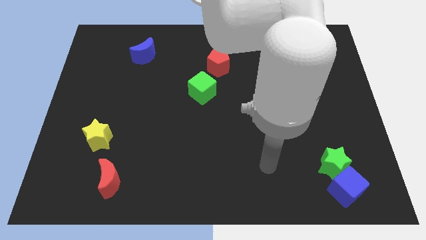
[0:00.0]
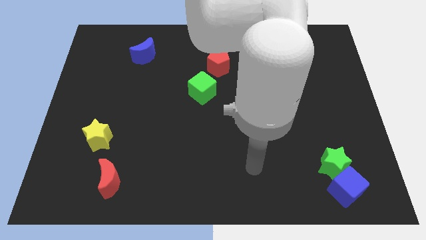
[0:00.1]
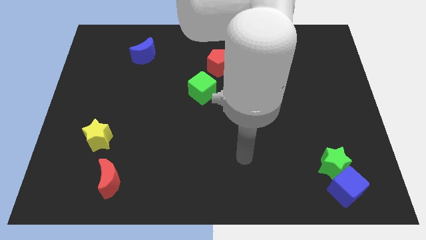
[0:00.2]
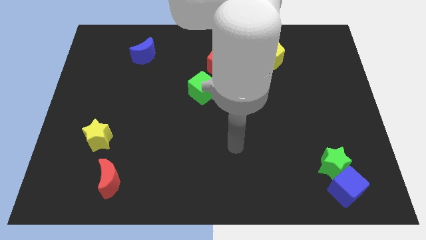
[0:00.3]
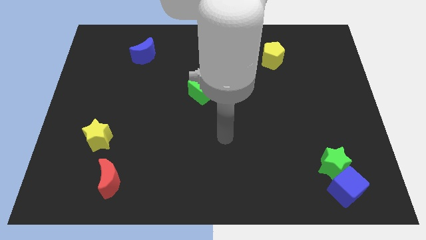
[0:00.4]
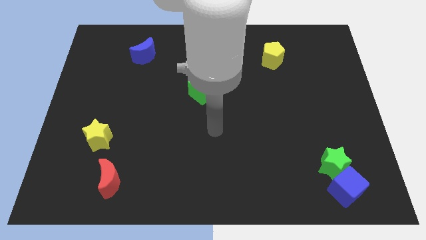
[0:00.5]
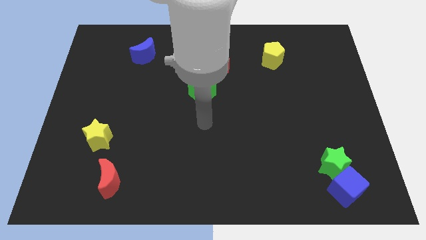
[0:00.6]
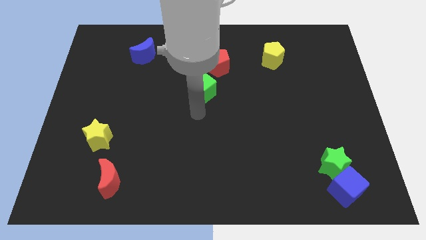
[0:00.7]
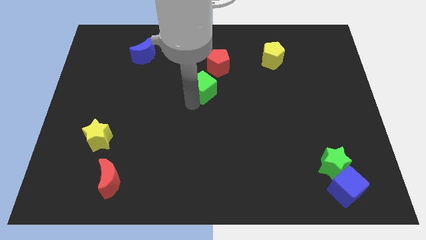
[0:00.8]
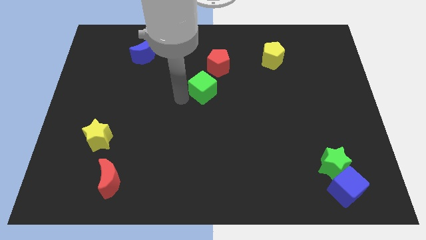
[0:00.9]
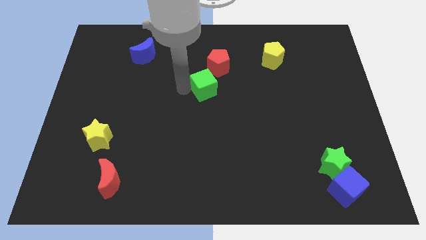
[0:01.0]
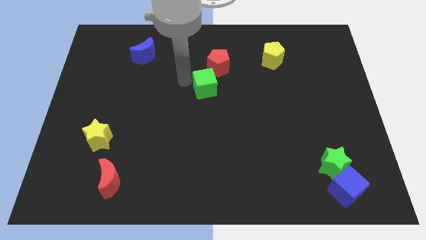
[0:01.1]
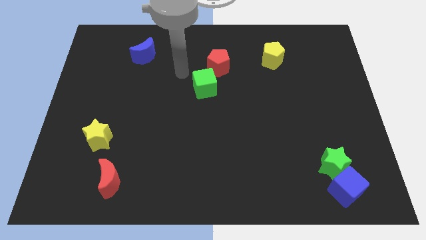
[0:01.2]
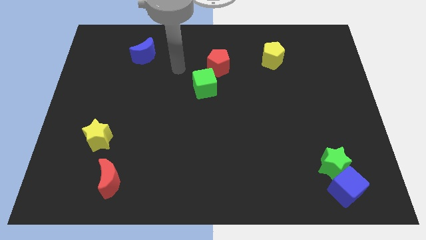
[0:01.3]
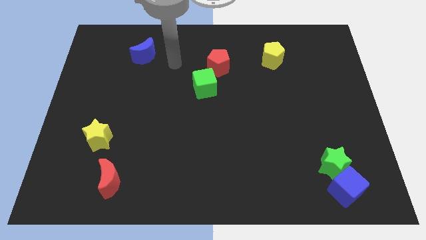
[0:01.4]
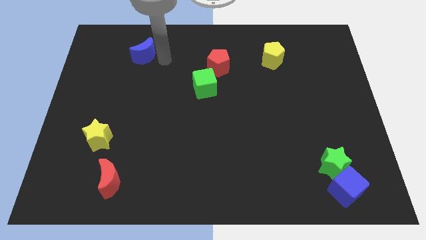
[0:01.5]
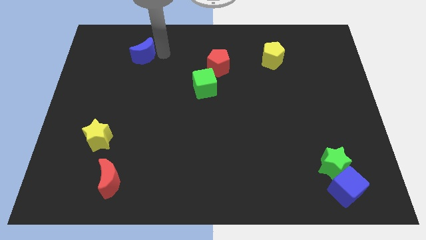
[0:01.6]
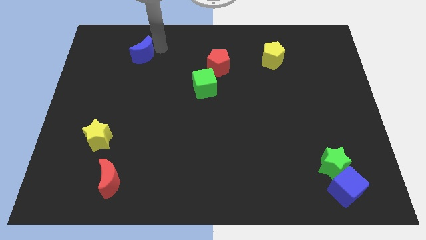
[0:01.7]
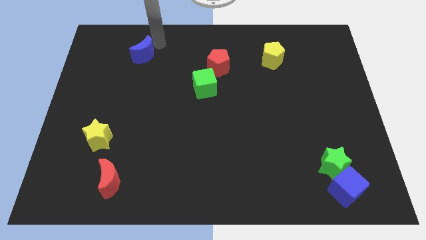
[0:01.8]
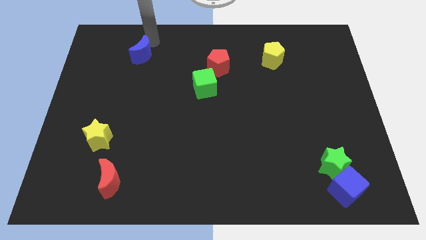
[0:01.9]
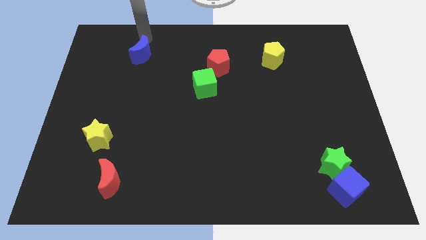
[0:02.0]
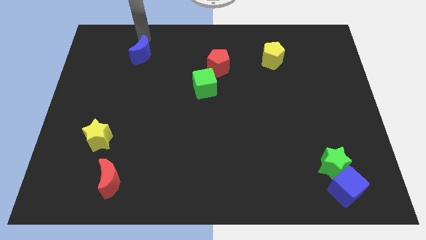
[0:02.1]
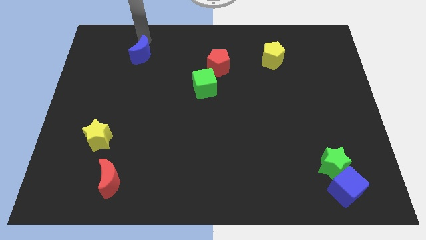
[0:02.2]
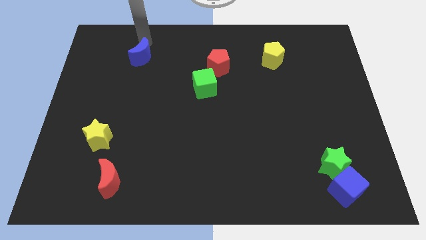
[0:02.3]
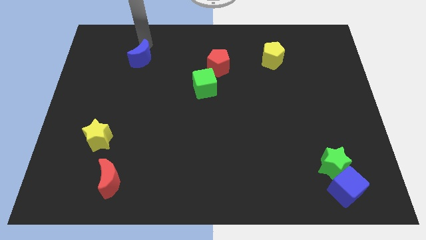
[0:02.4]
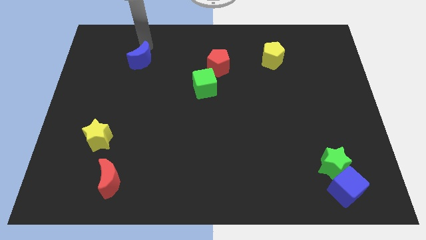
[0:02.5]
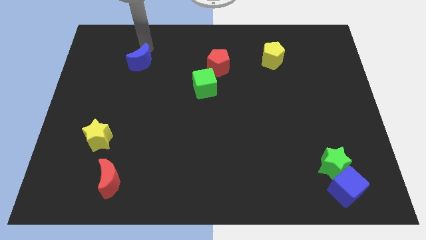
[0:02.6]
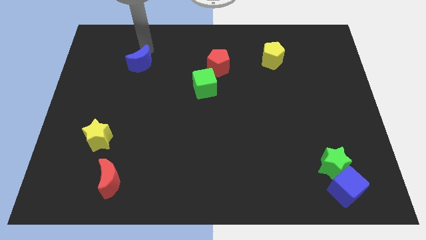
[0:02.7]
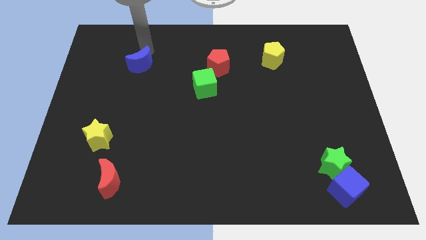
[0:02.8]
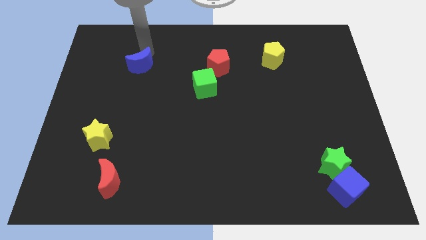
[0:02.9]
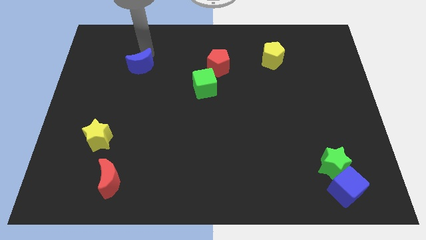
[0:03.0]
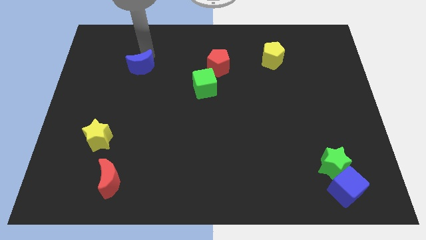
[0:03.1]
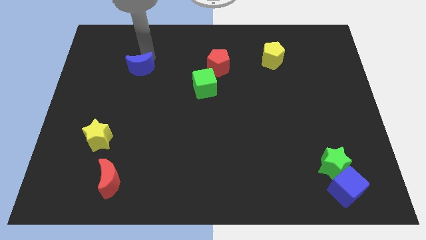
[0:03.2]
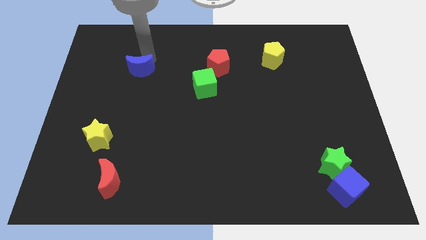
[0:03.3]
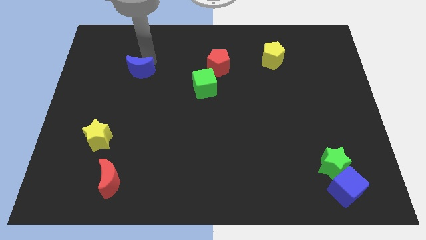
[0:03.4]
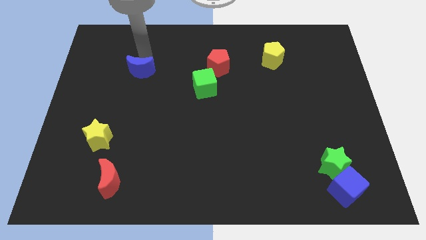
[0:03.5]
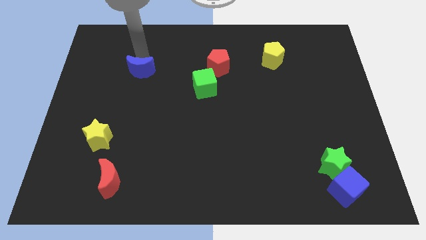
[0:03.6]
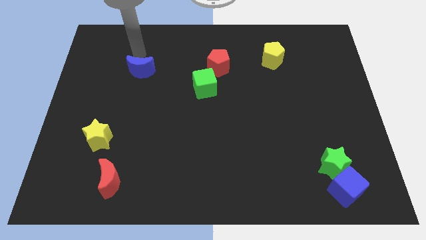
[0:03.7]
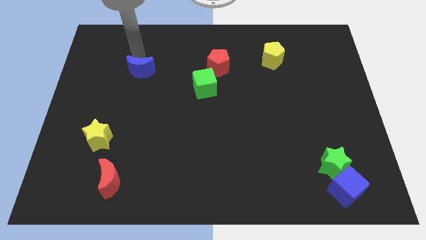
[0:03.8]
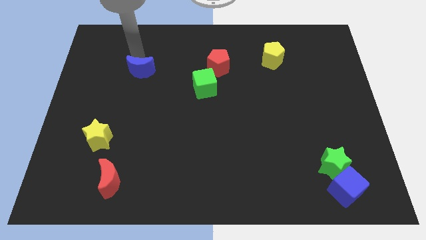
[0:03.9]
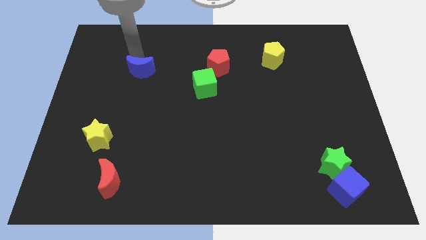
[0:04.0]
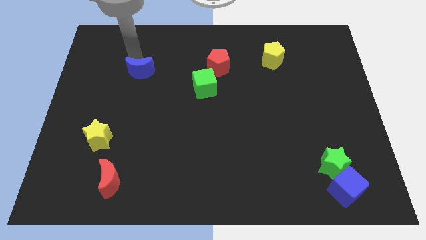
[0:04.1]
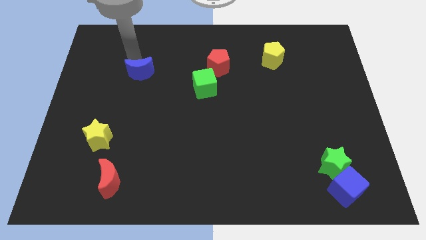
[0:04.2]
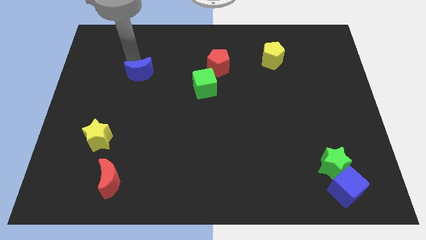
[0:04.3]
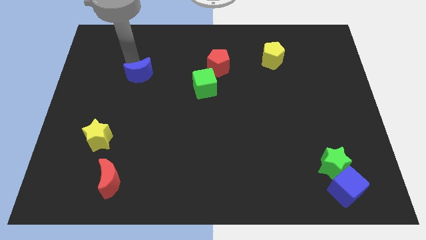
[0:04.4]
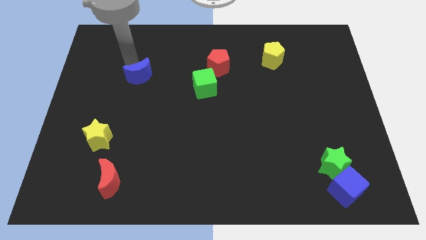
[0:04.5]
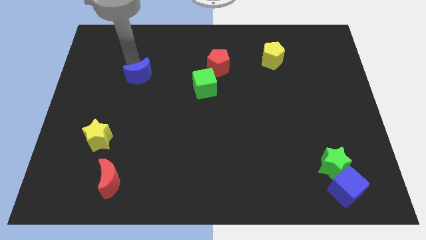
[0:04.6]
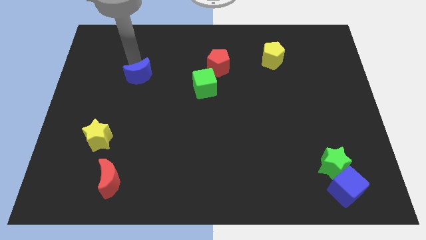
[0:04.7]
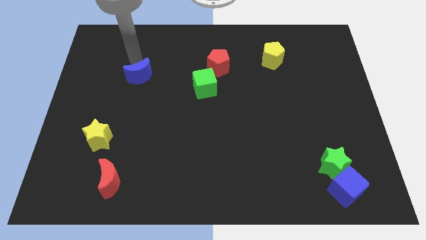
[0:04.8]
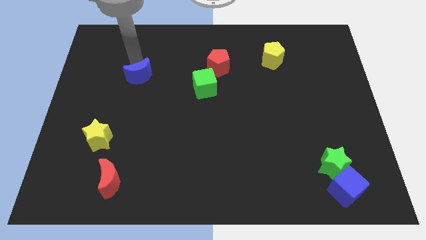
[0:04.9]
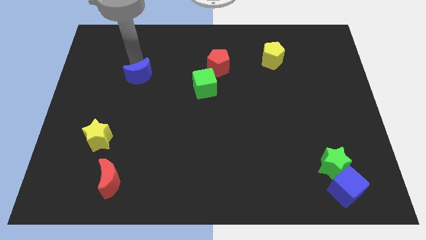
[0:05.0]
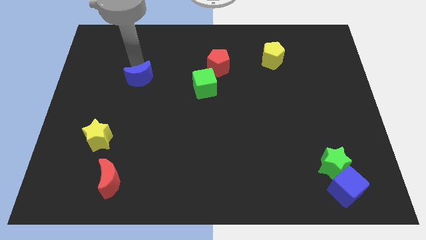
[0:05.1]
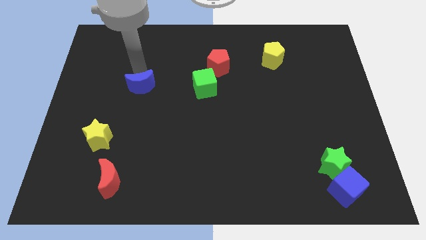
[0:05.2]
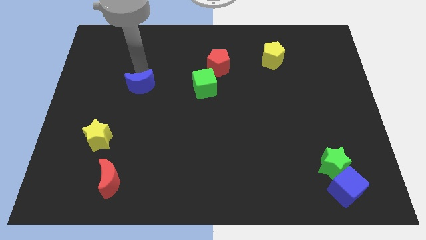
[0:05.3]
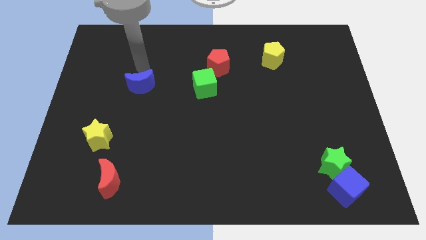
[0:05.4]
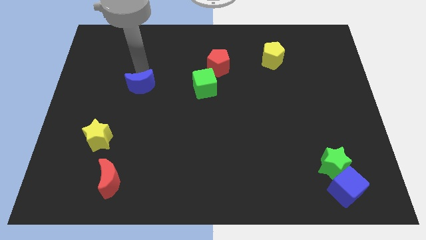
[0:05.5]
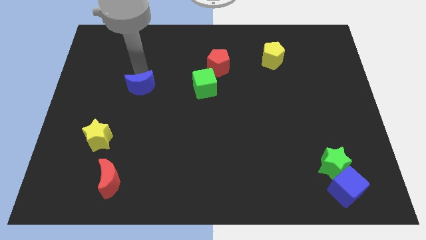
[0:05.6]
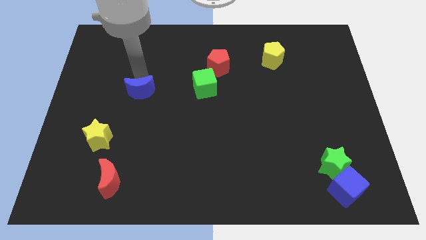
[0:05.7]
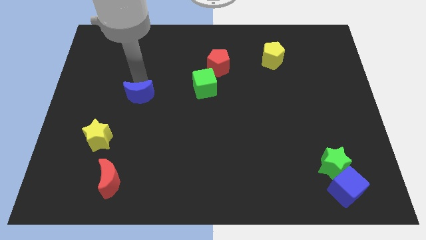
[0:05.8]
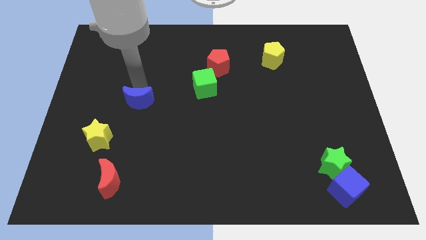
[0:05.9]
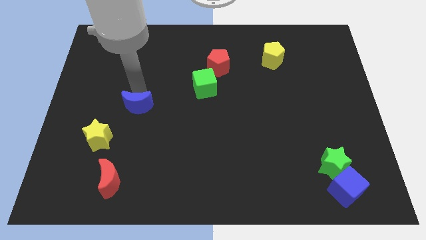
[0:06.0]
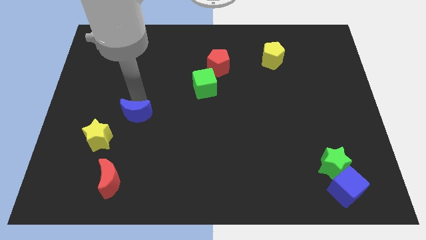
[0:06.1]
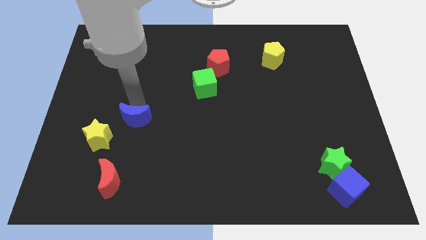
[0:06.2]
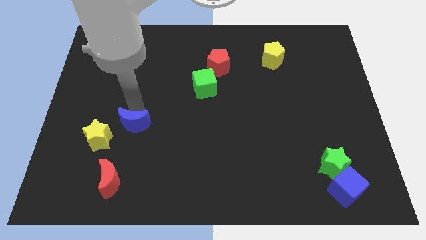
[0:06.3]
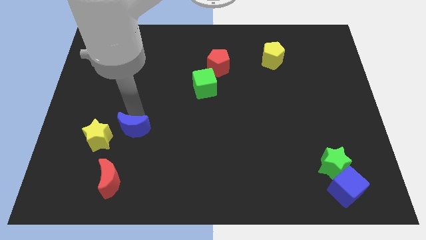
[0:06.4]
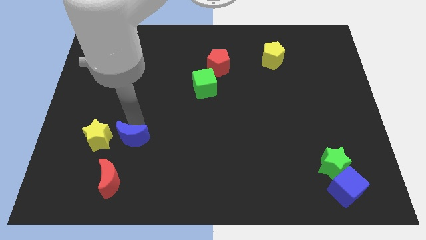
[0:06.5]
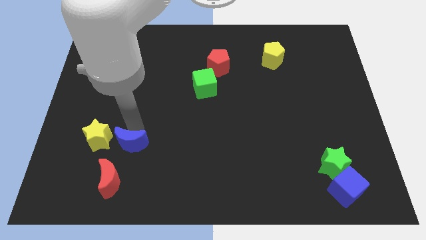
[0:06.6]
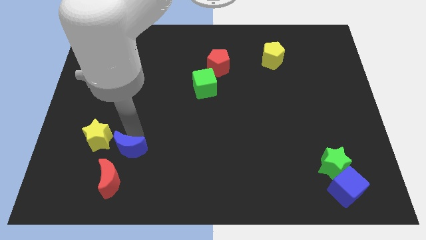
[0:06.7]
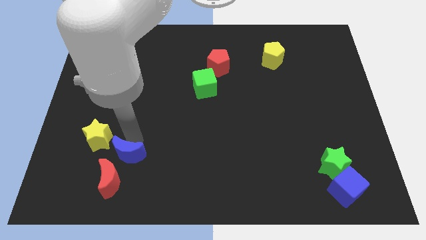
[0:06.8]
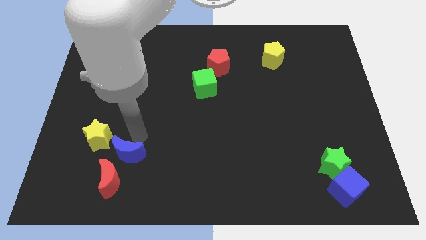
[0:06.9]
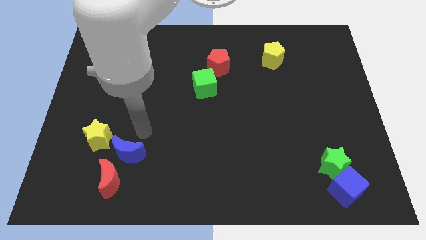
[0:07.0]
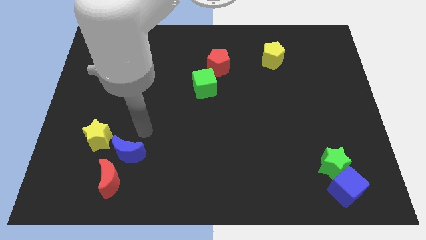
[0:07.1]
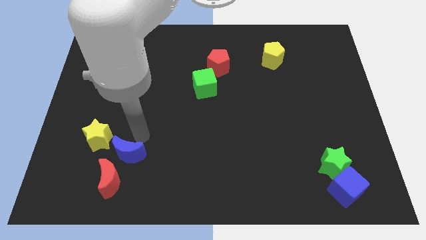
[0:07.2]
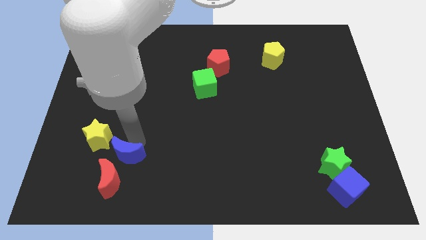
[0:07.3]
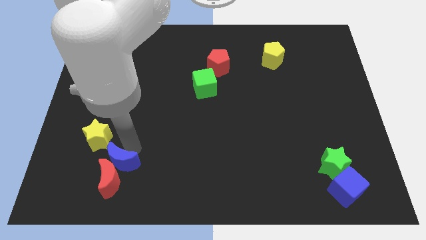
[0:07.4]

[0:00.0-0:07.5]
push the blue moon towards the red moon

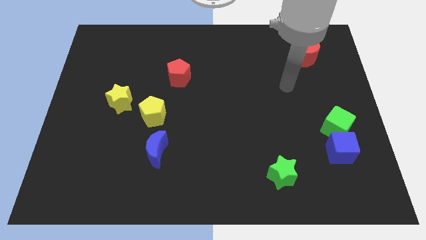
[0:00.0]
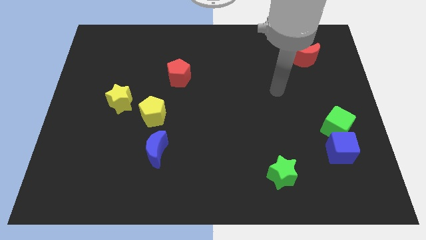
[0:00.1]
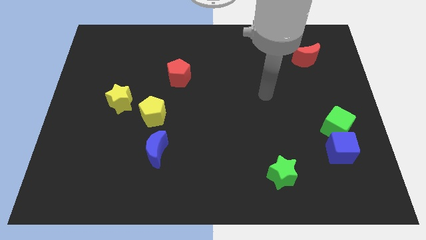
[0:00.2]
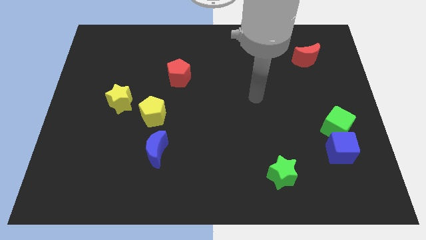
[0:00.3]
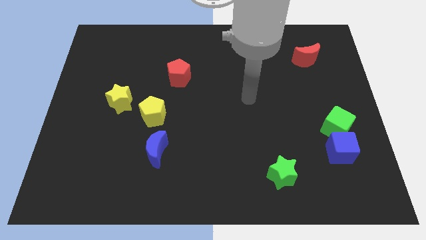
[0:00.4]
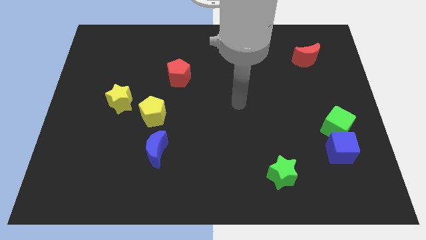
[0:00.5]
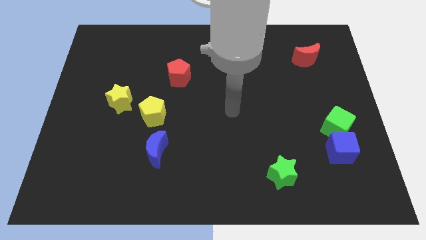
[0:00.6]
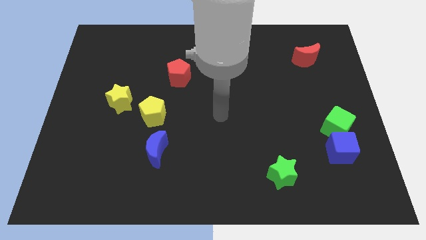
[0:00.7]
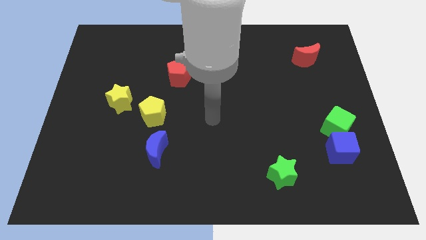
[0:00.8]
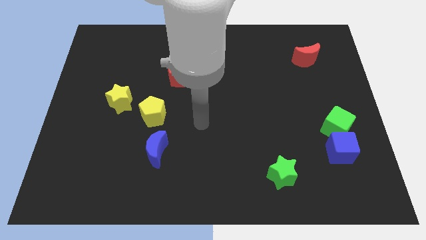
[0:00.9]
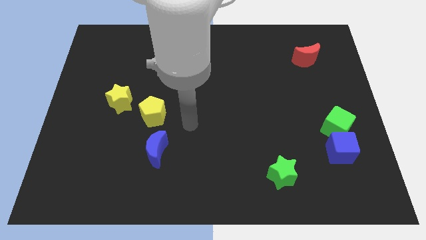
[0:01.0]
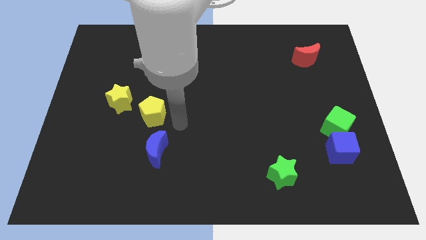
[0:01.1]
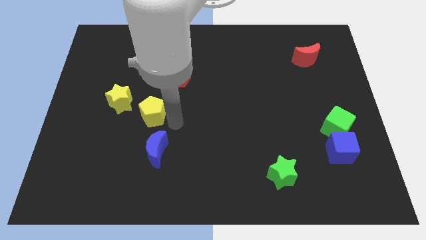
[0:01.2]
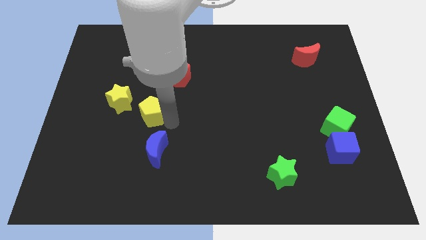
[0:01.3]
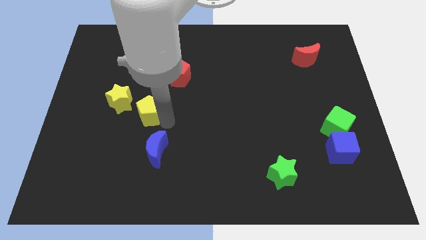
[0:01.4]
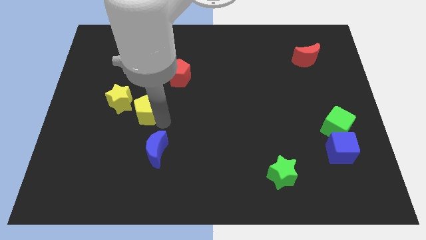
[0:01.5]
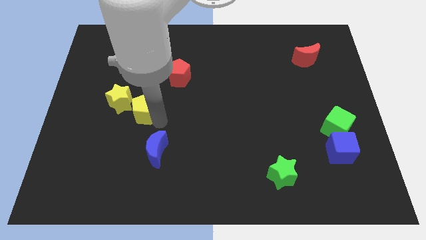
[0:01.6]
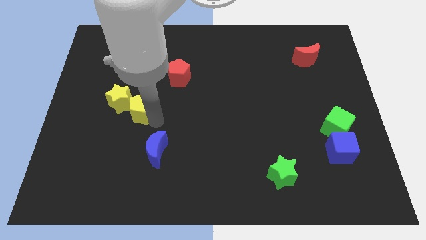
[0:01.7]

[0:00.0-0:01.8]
move the yellow pentagon to the yellow star
